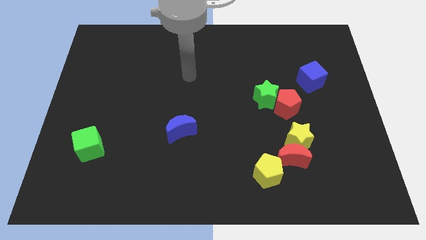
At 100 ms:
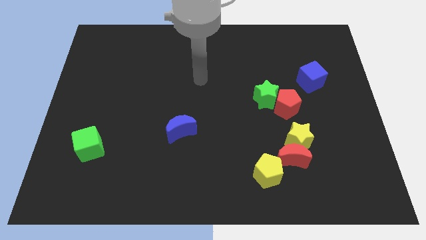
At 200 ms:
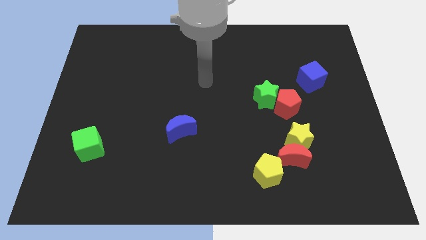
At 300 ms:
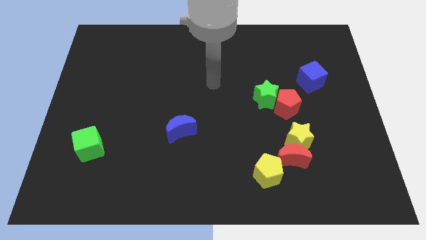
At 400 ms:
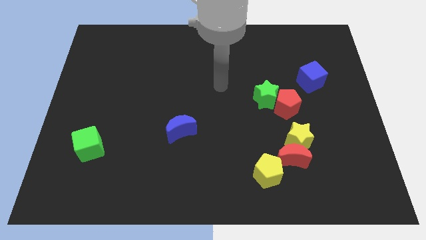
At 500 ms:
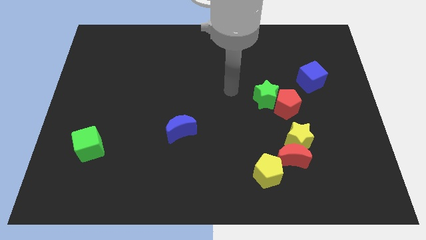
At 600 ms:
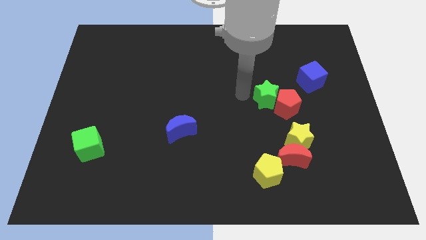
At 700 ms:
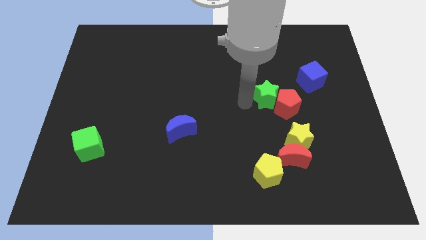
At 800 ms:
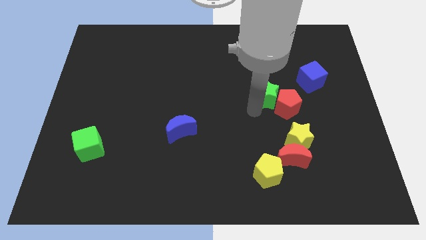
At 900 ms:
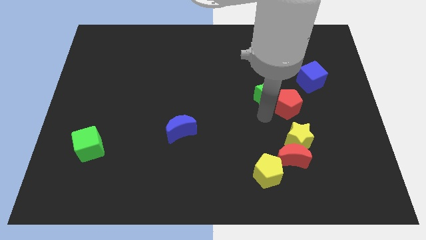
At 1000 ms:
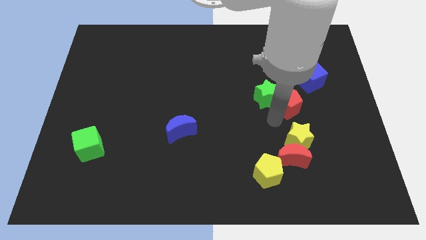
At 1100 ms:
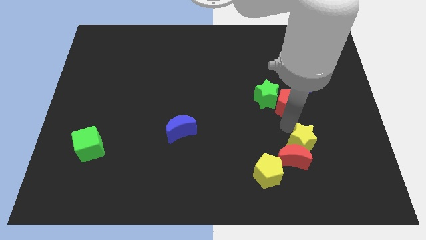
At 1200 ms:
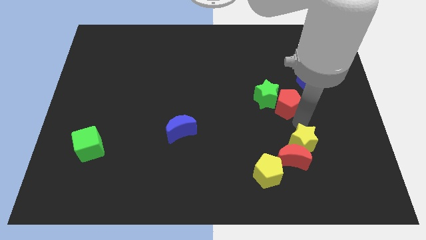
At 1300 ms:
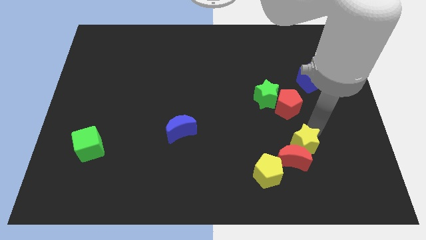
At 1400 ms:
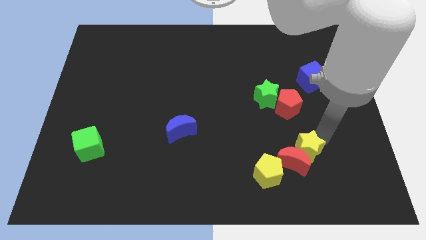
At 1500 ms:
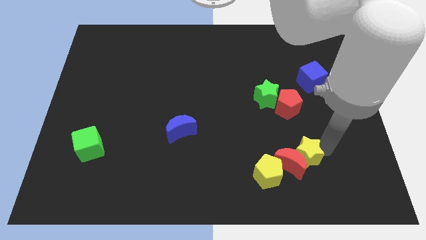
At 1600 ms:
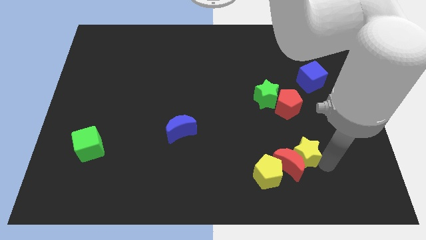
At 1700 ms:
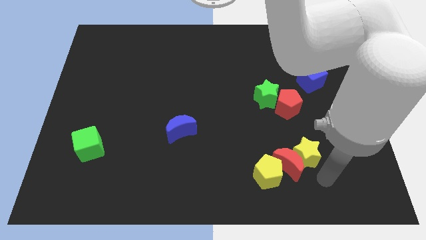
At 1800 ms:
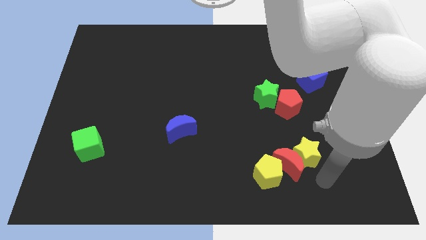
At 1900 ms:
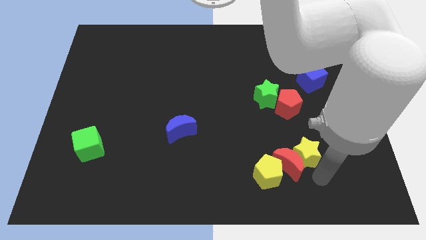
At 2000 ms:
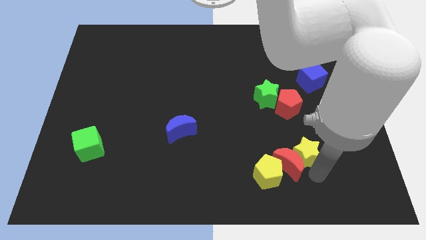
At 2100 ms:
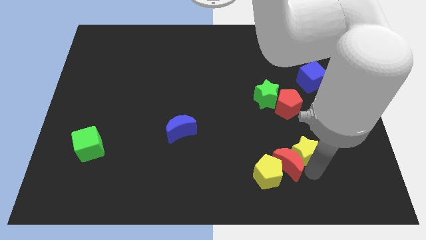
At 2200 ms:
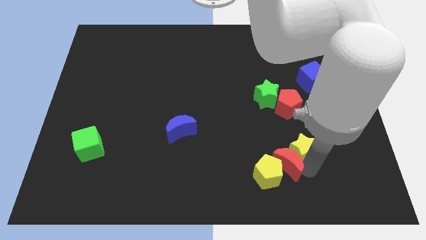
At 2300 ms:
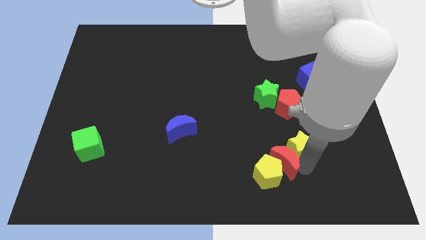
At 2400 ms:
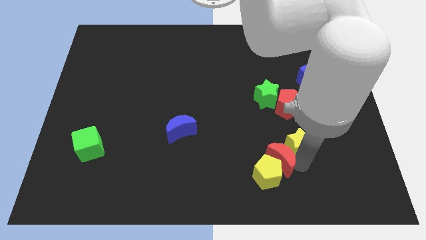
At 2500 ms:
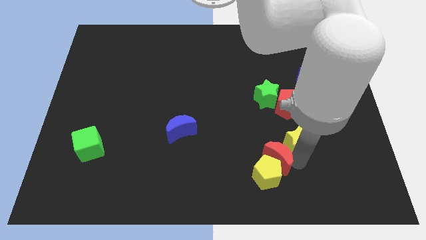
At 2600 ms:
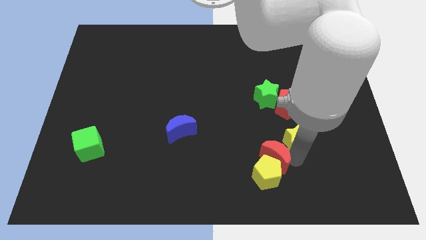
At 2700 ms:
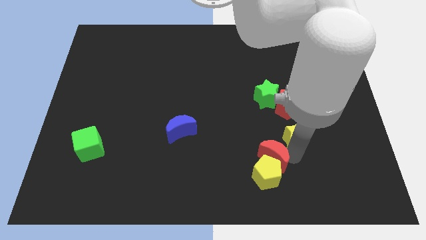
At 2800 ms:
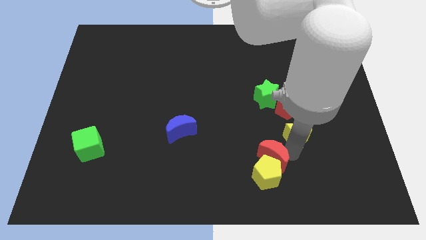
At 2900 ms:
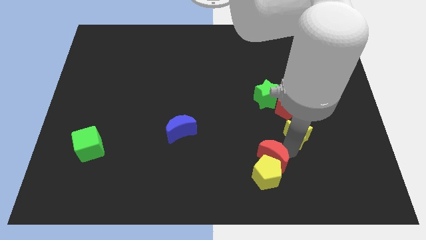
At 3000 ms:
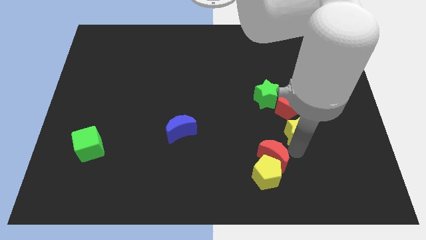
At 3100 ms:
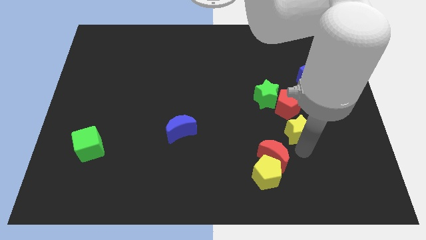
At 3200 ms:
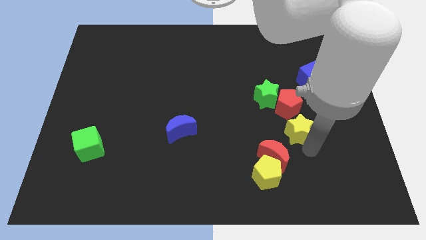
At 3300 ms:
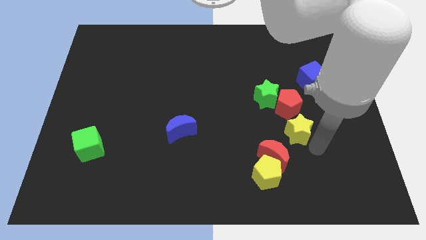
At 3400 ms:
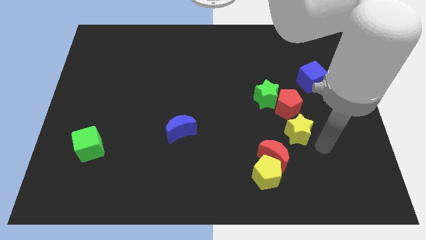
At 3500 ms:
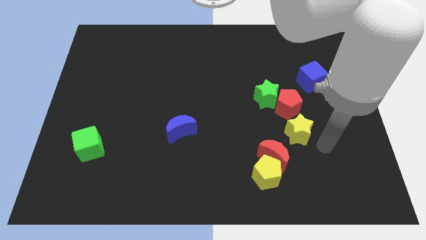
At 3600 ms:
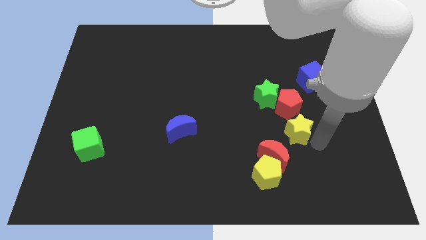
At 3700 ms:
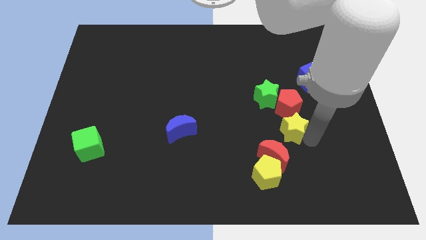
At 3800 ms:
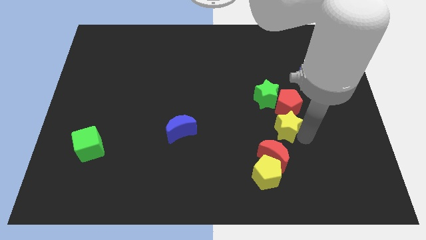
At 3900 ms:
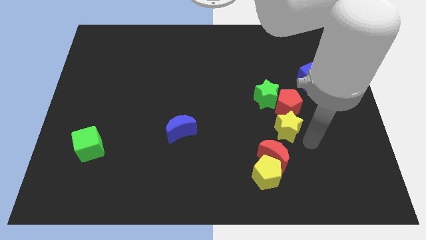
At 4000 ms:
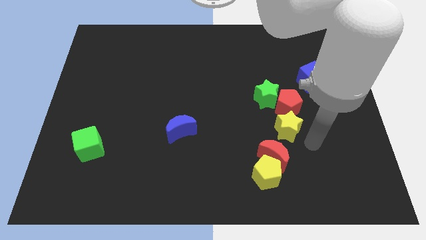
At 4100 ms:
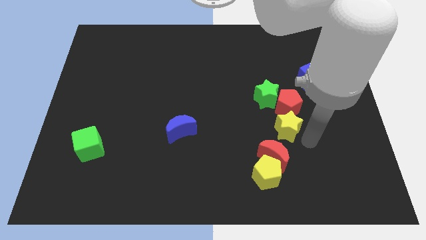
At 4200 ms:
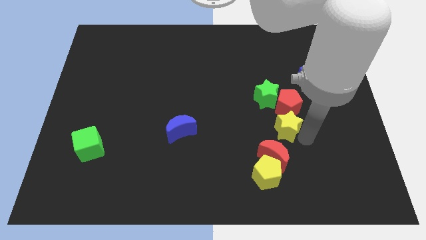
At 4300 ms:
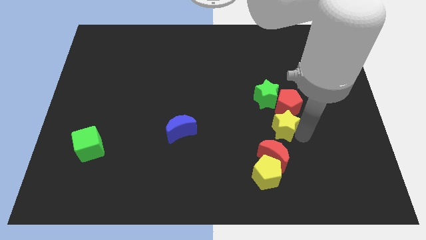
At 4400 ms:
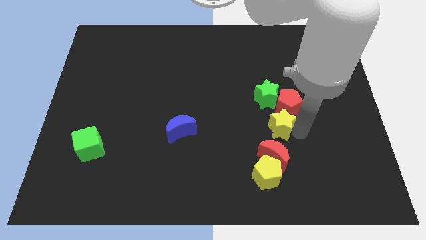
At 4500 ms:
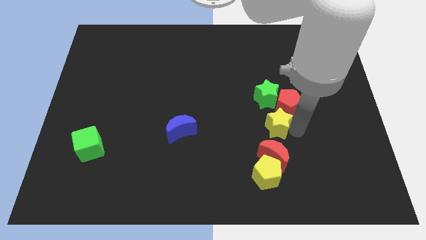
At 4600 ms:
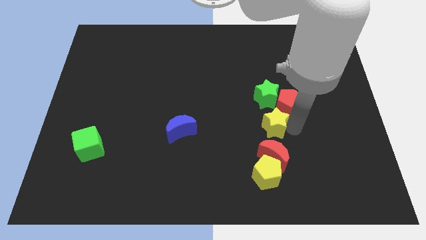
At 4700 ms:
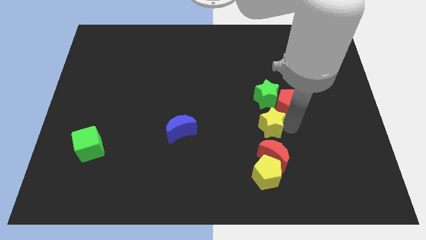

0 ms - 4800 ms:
move the yellow star up and left diagonally a bit

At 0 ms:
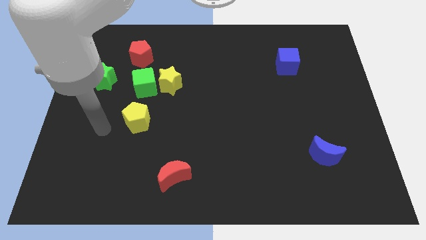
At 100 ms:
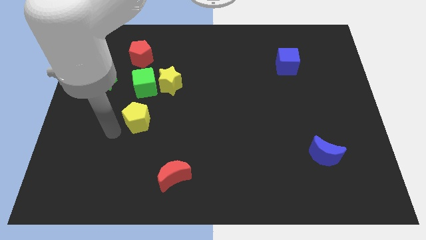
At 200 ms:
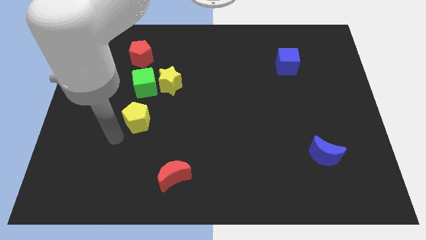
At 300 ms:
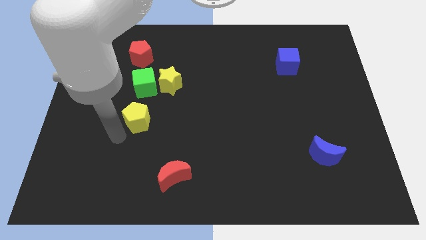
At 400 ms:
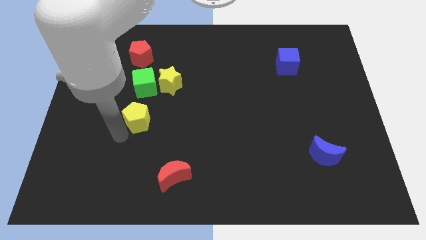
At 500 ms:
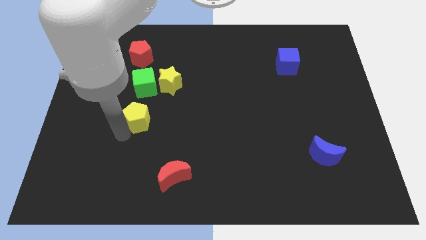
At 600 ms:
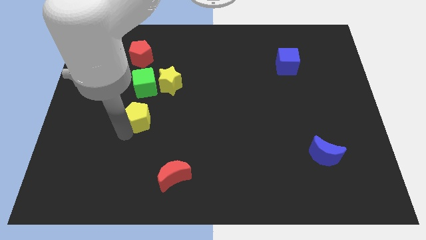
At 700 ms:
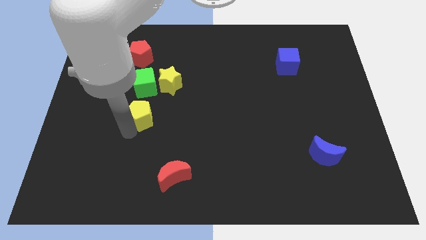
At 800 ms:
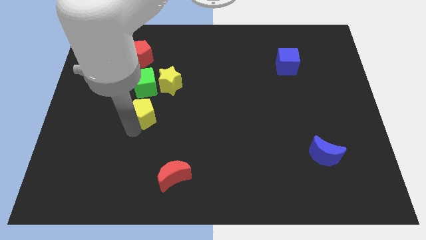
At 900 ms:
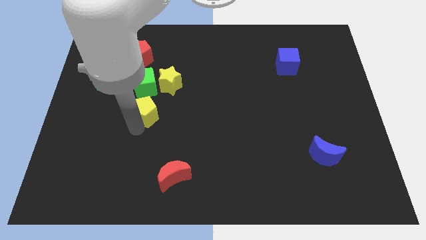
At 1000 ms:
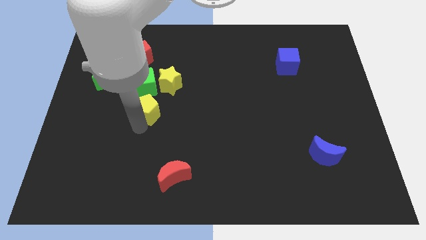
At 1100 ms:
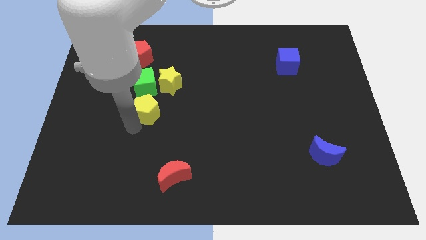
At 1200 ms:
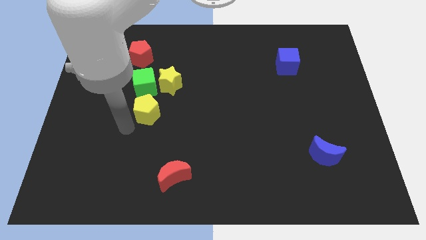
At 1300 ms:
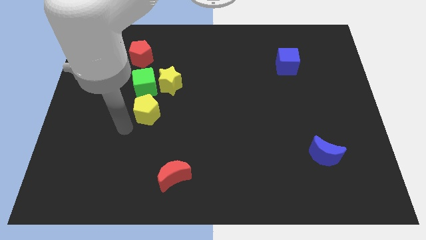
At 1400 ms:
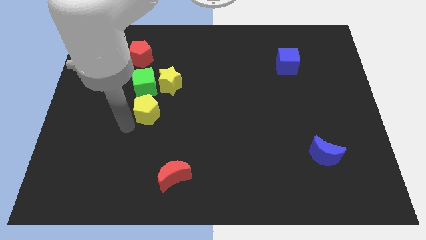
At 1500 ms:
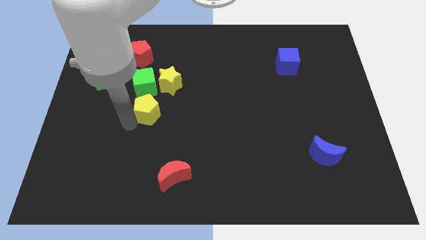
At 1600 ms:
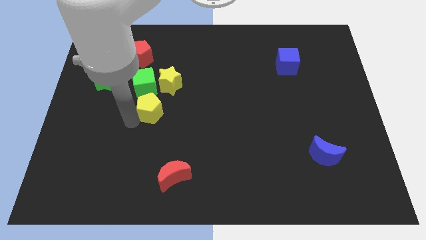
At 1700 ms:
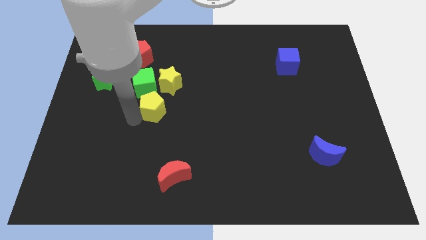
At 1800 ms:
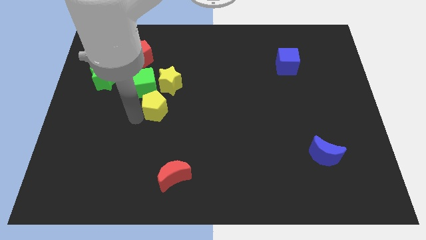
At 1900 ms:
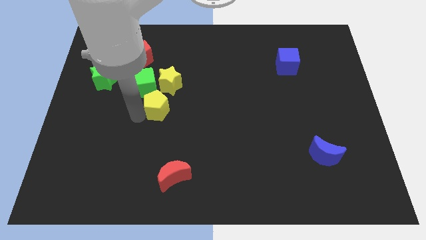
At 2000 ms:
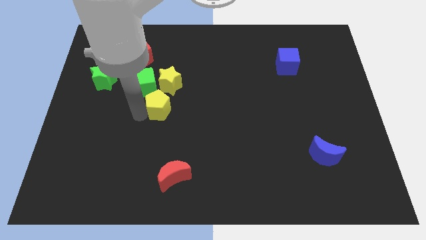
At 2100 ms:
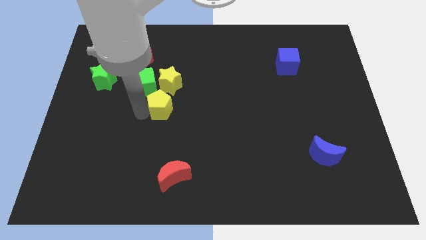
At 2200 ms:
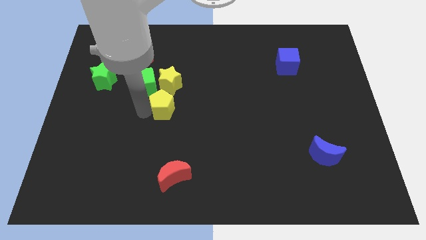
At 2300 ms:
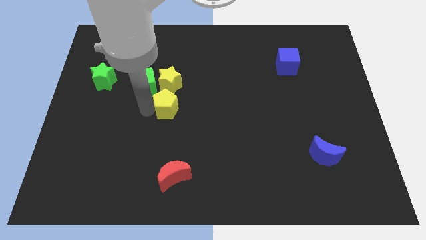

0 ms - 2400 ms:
slide the yellow pentagon up and to the right somewhat

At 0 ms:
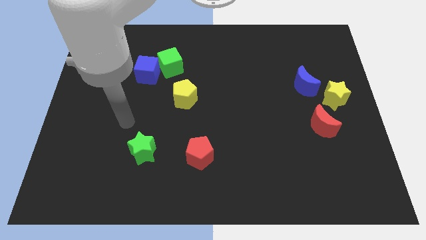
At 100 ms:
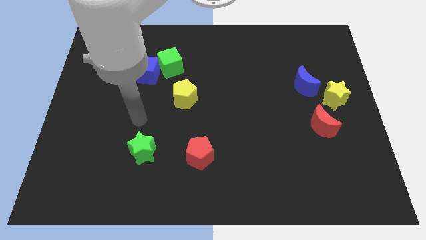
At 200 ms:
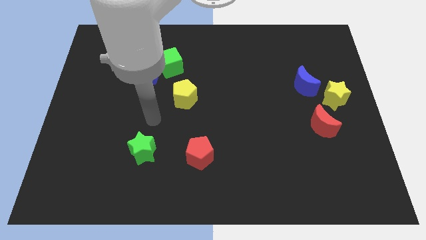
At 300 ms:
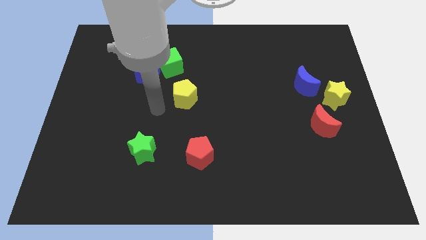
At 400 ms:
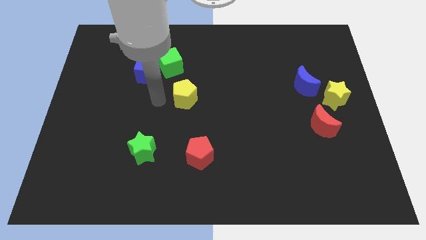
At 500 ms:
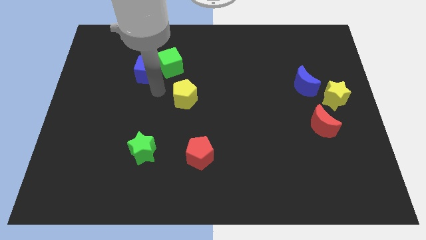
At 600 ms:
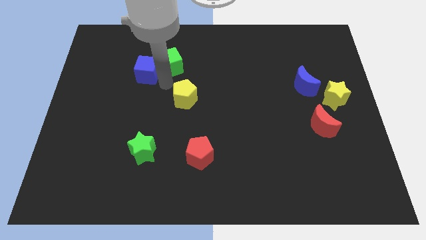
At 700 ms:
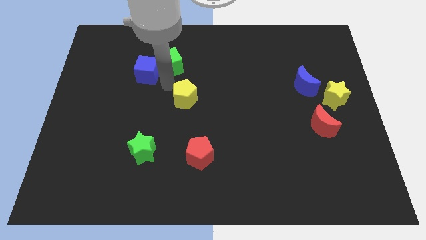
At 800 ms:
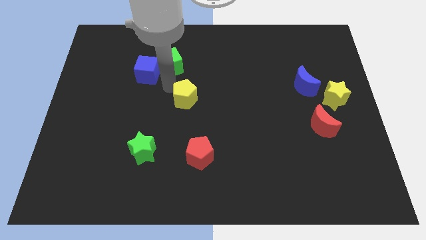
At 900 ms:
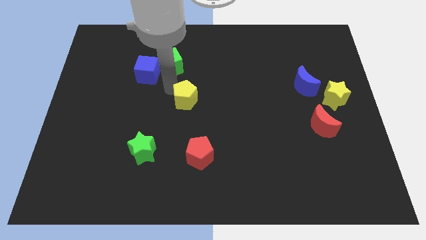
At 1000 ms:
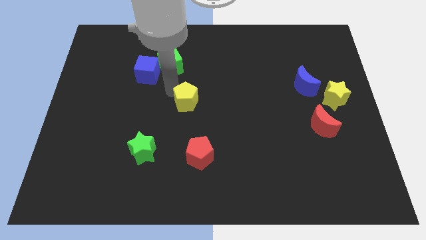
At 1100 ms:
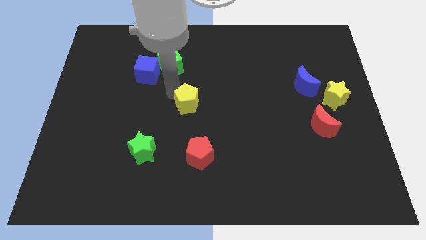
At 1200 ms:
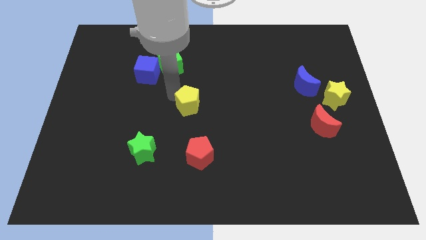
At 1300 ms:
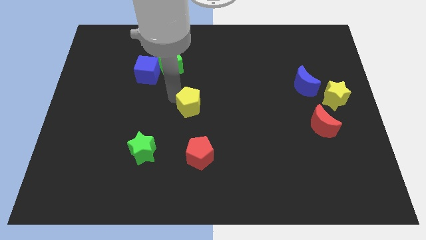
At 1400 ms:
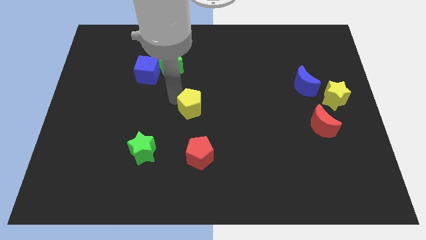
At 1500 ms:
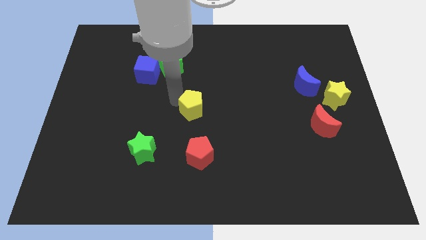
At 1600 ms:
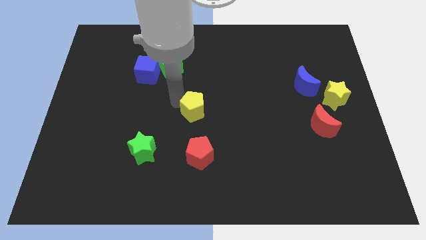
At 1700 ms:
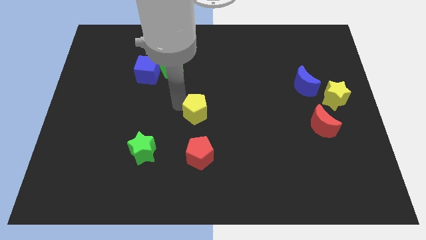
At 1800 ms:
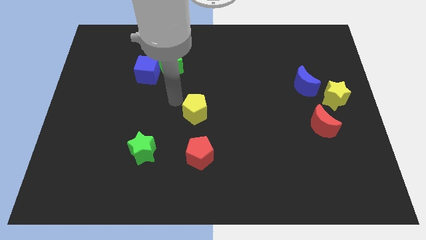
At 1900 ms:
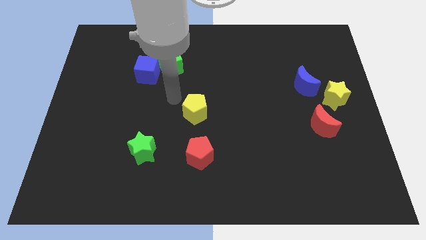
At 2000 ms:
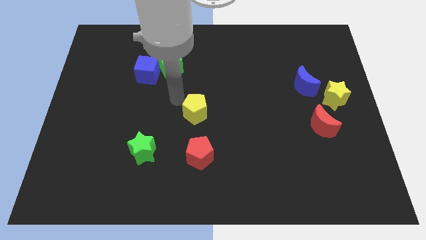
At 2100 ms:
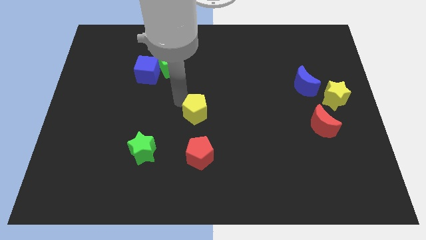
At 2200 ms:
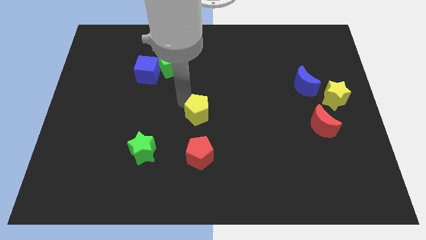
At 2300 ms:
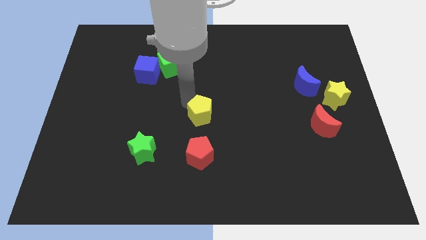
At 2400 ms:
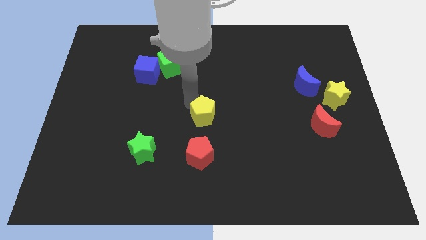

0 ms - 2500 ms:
push the yellow pentagon a bit downwards and right
